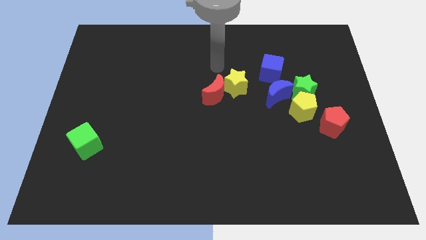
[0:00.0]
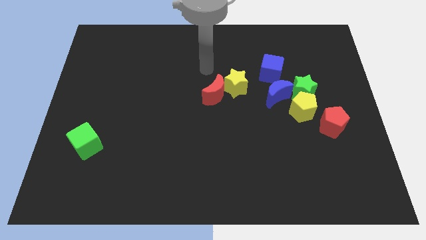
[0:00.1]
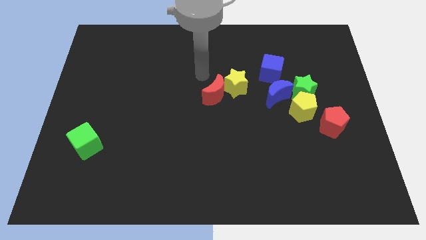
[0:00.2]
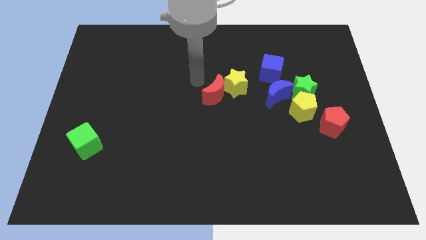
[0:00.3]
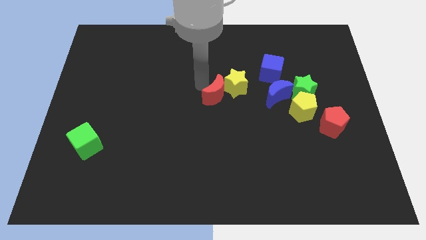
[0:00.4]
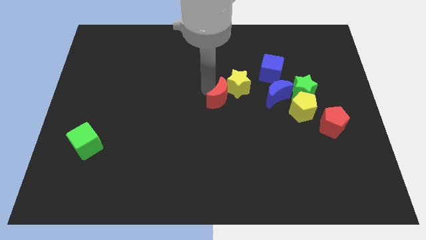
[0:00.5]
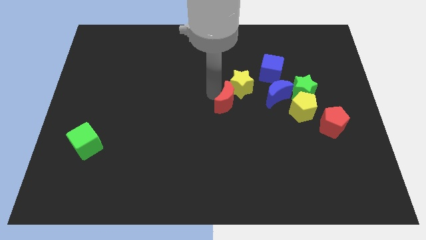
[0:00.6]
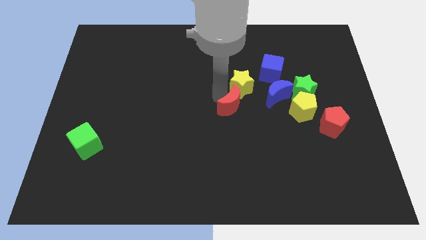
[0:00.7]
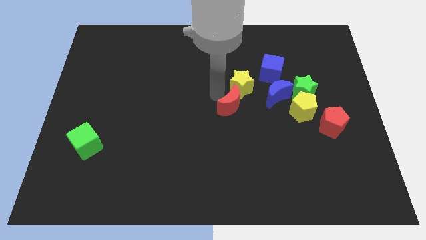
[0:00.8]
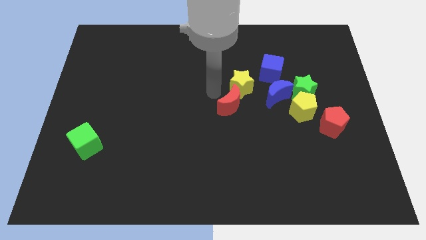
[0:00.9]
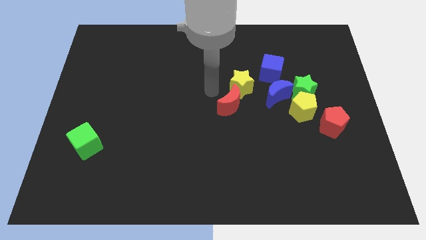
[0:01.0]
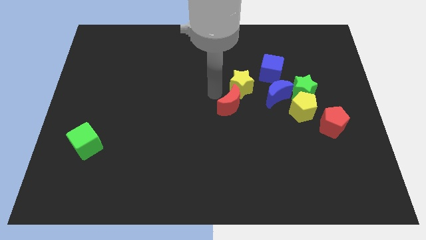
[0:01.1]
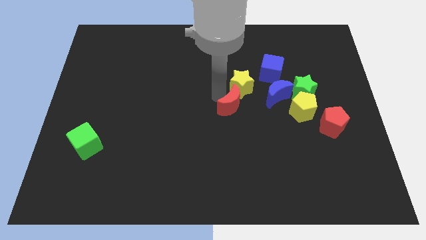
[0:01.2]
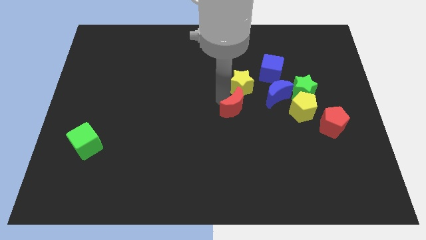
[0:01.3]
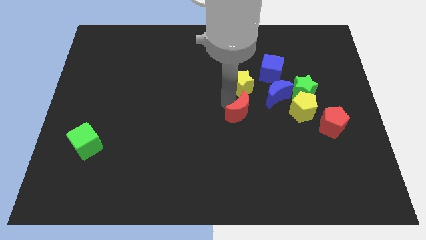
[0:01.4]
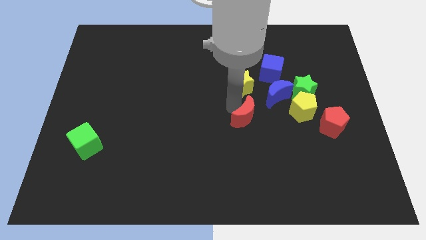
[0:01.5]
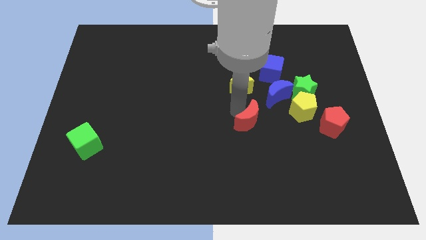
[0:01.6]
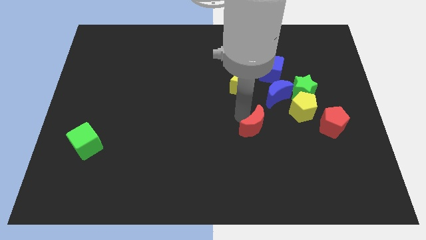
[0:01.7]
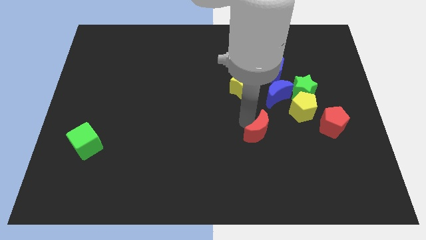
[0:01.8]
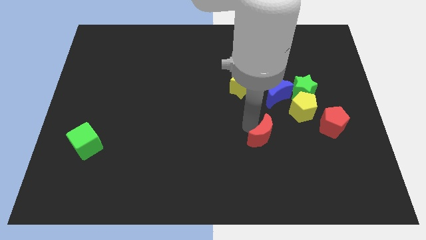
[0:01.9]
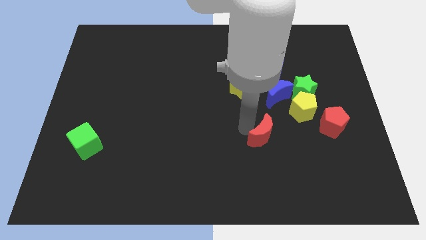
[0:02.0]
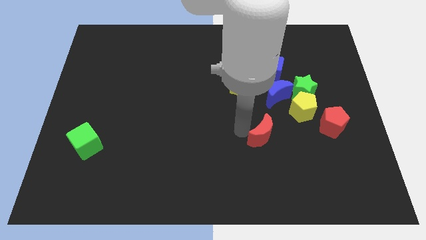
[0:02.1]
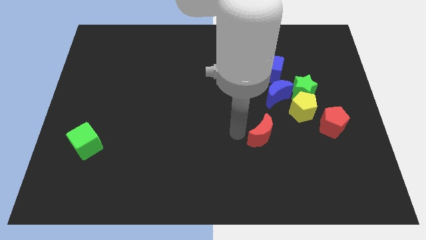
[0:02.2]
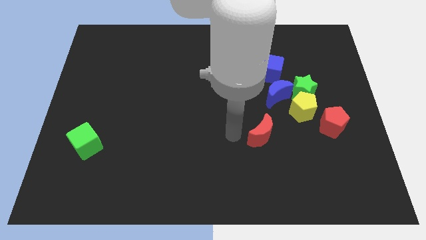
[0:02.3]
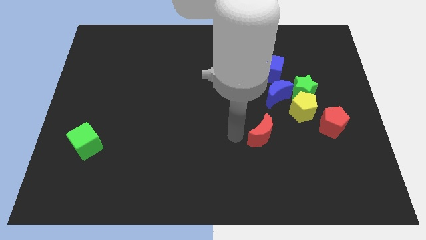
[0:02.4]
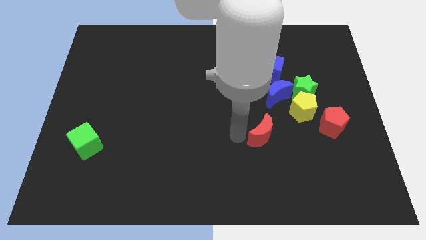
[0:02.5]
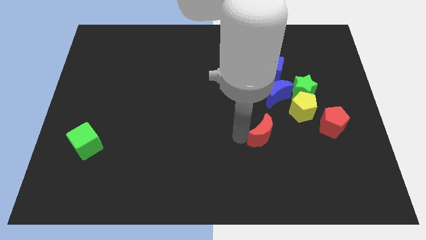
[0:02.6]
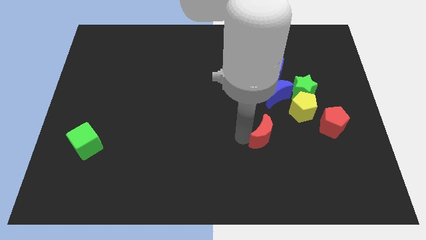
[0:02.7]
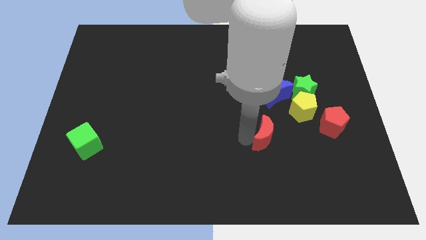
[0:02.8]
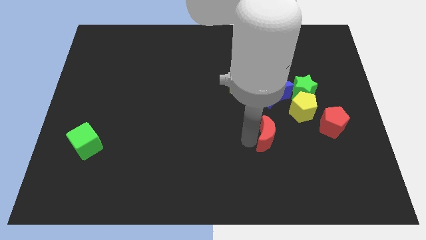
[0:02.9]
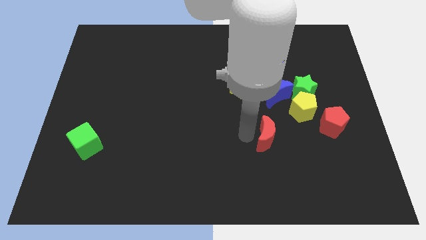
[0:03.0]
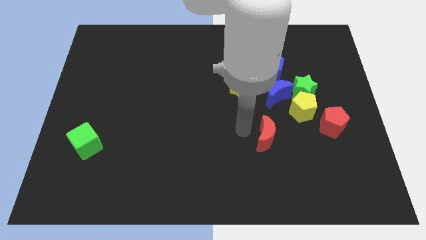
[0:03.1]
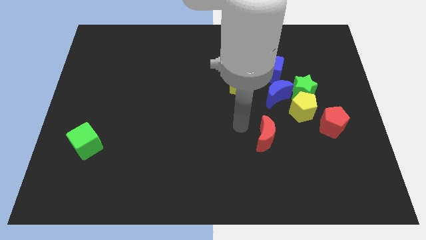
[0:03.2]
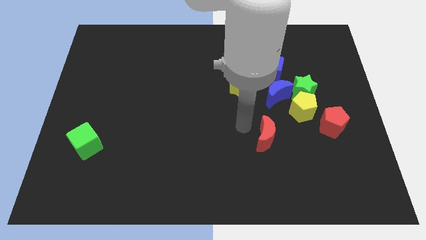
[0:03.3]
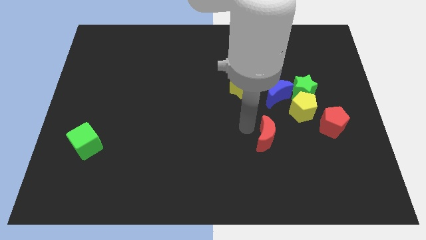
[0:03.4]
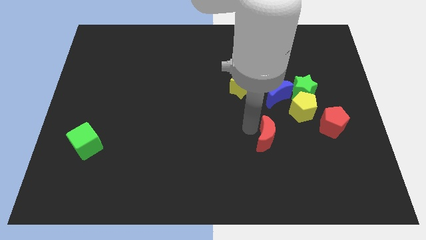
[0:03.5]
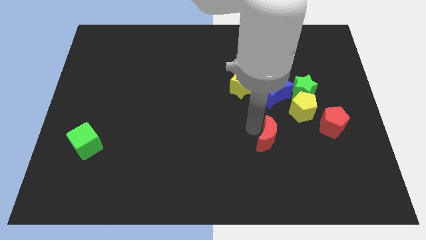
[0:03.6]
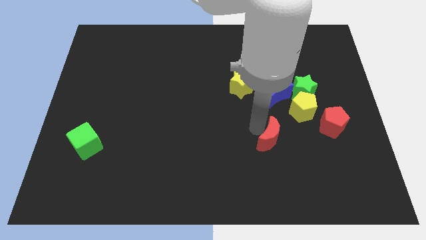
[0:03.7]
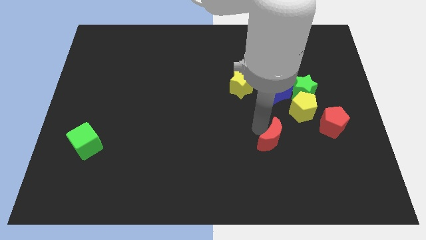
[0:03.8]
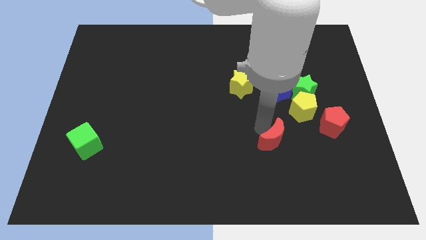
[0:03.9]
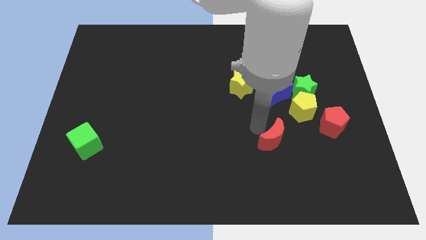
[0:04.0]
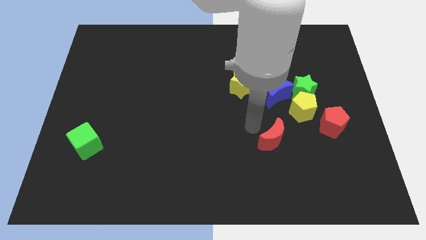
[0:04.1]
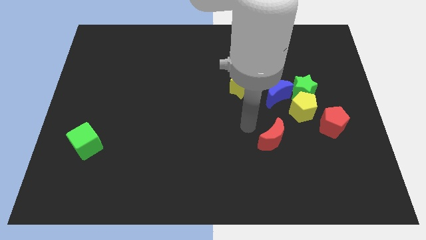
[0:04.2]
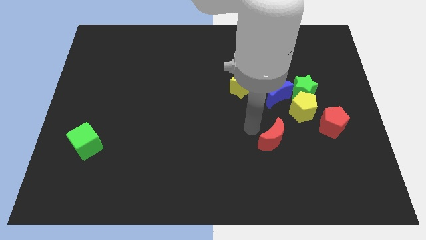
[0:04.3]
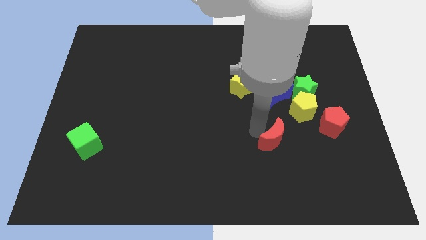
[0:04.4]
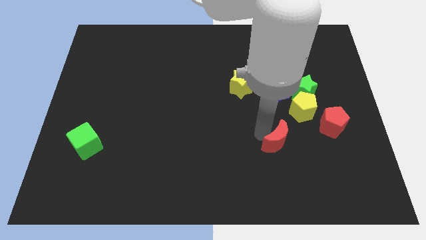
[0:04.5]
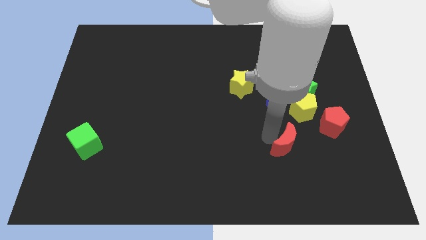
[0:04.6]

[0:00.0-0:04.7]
push the red moon diagonally down and to the right

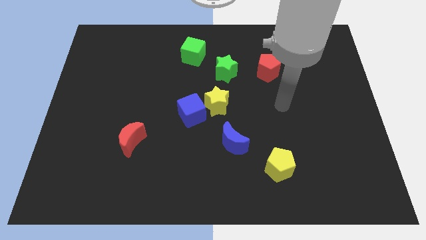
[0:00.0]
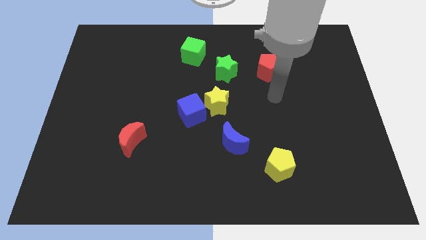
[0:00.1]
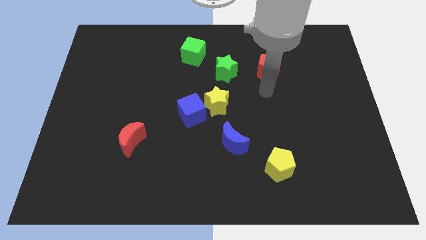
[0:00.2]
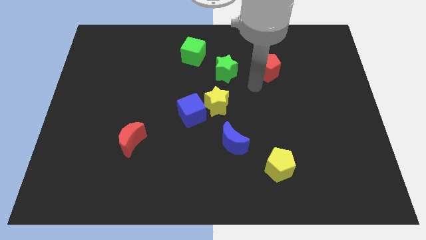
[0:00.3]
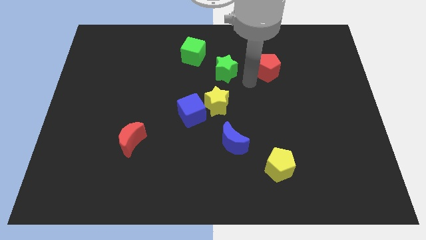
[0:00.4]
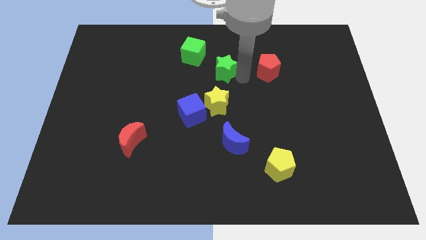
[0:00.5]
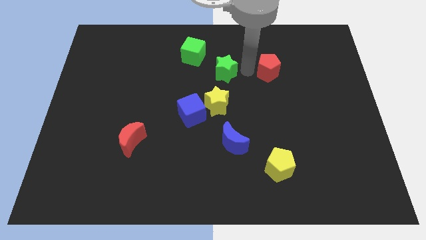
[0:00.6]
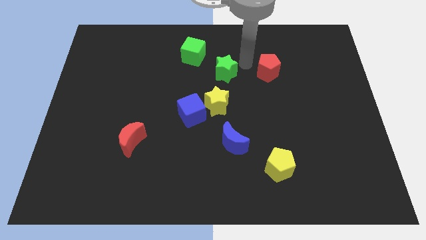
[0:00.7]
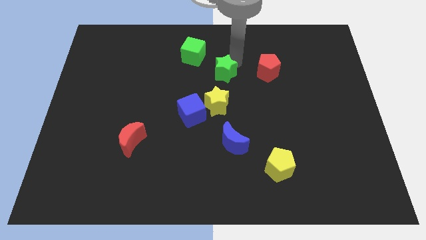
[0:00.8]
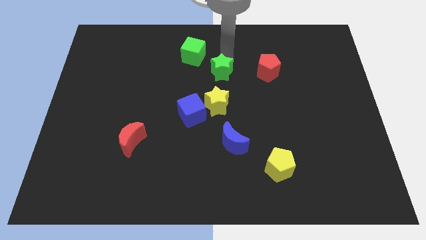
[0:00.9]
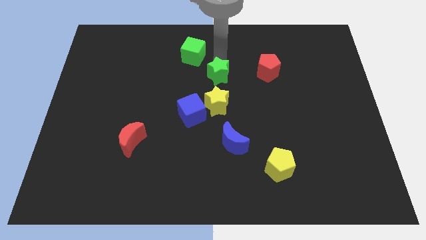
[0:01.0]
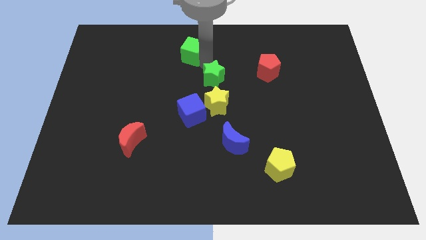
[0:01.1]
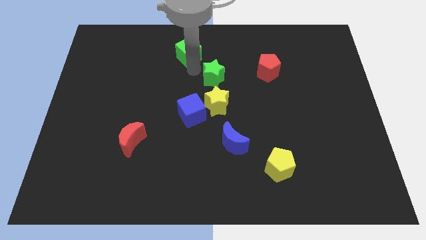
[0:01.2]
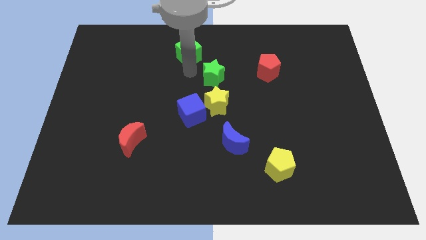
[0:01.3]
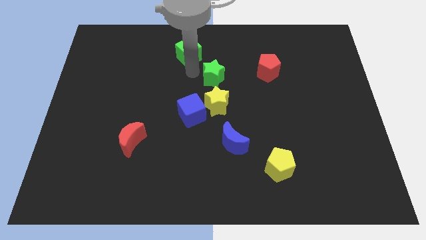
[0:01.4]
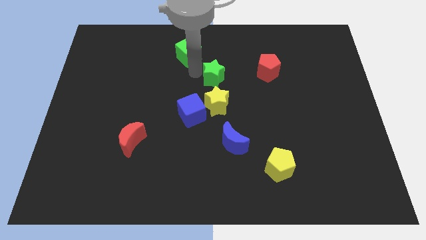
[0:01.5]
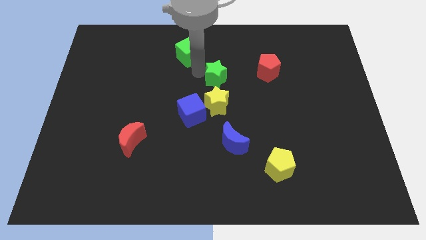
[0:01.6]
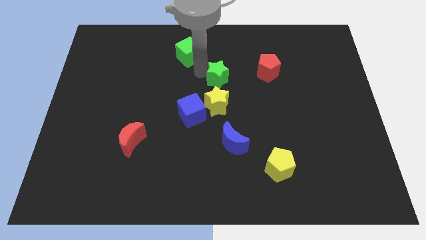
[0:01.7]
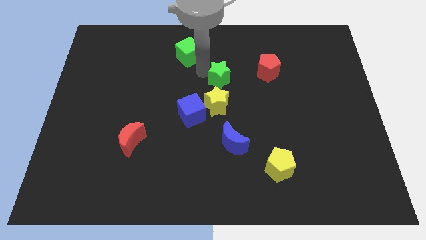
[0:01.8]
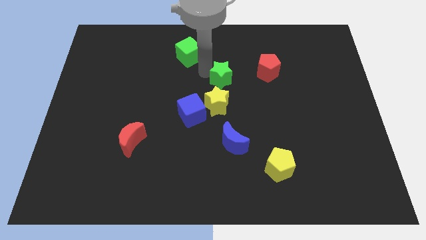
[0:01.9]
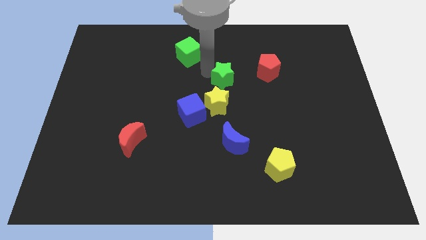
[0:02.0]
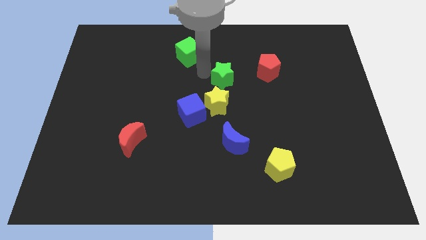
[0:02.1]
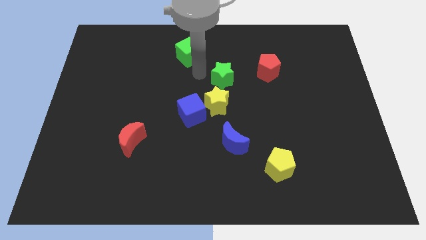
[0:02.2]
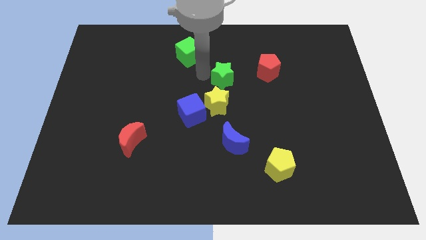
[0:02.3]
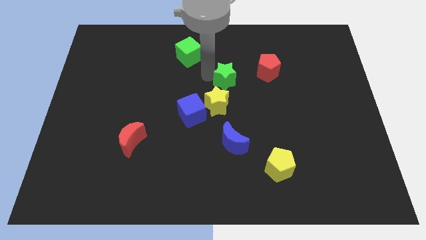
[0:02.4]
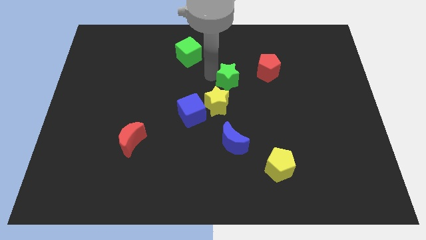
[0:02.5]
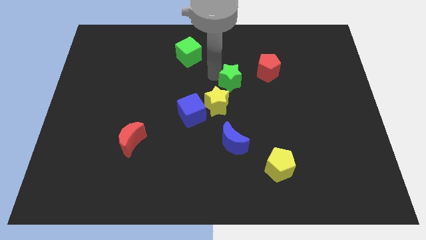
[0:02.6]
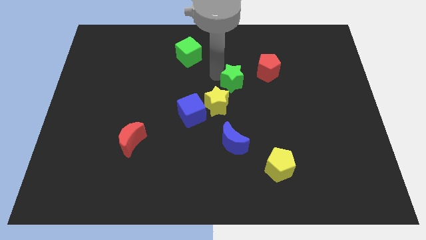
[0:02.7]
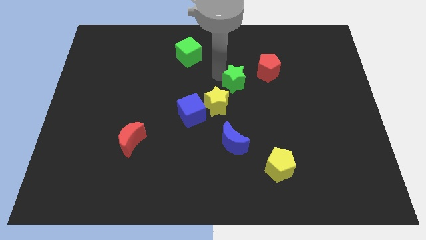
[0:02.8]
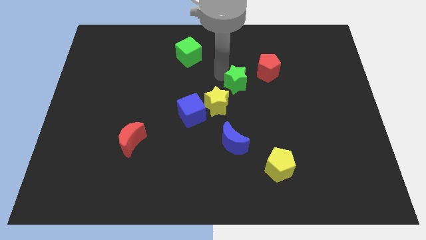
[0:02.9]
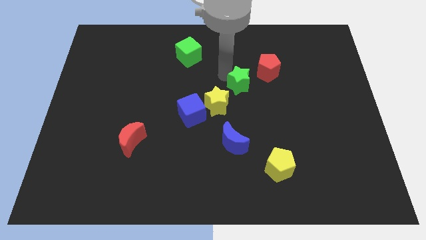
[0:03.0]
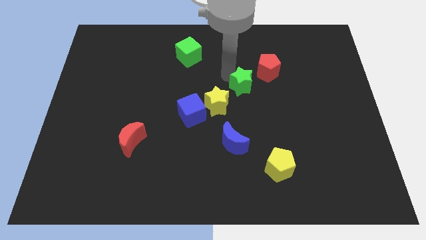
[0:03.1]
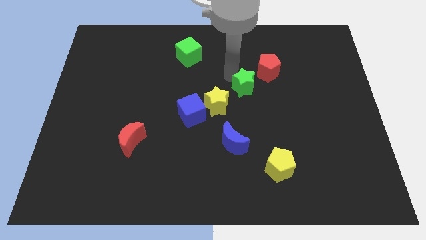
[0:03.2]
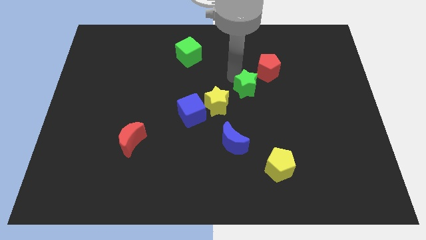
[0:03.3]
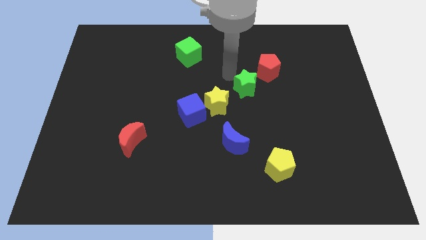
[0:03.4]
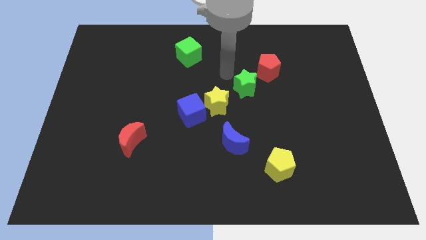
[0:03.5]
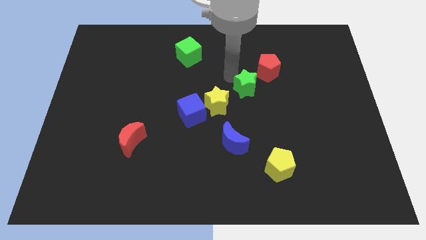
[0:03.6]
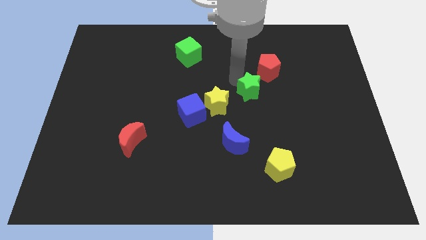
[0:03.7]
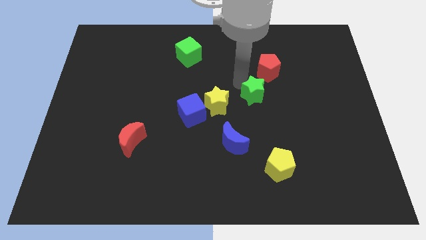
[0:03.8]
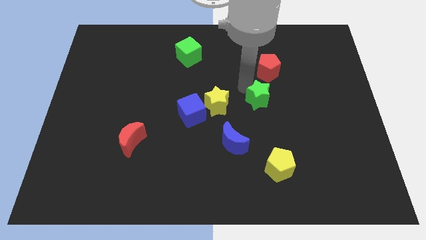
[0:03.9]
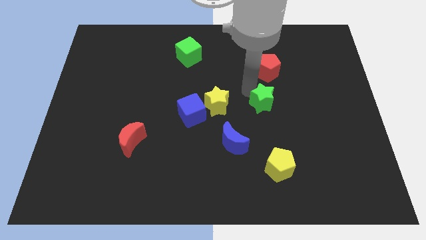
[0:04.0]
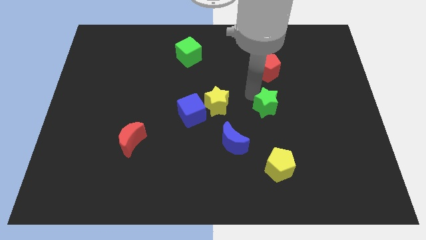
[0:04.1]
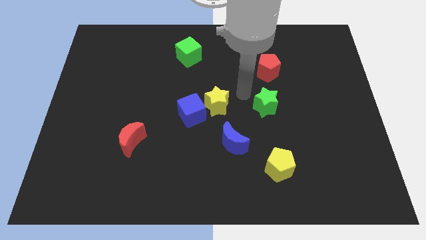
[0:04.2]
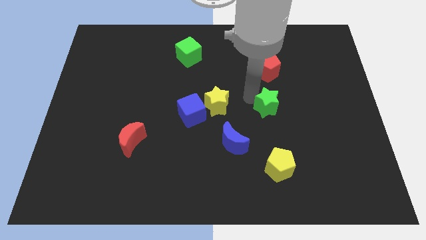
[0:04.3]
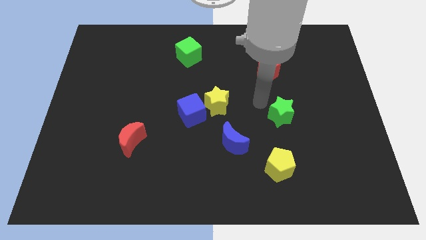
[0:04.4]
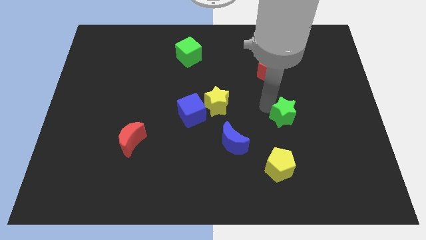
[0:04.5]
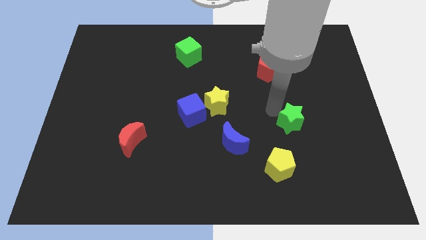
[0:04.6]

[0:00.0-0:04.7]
push the green star down and right diagonally
